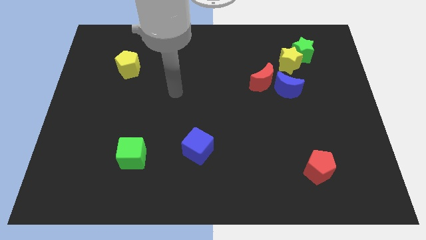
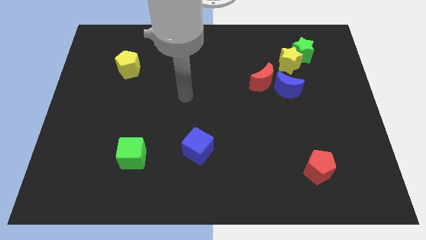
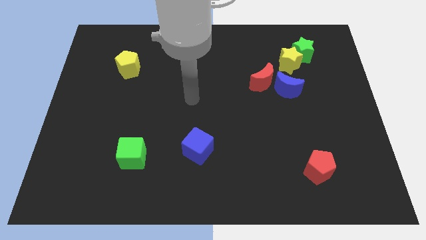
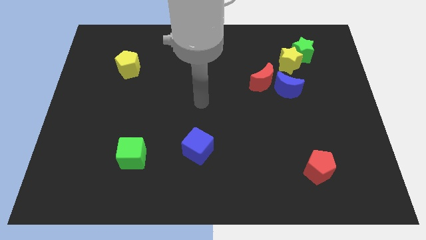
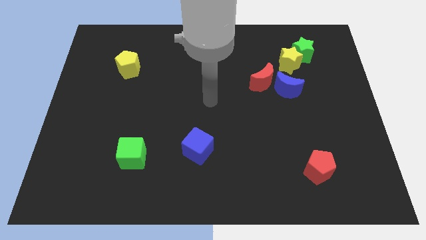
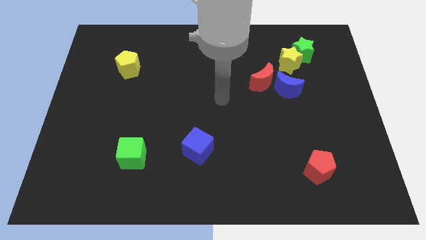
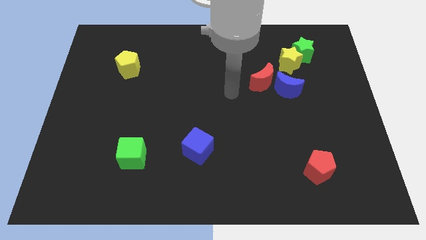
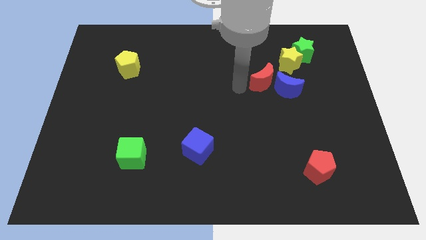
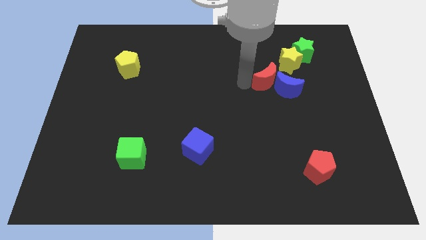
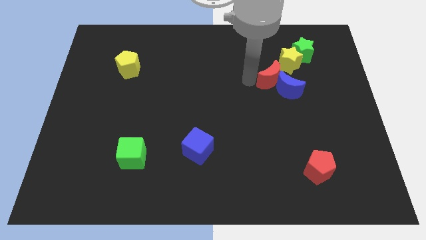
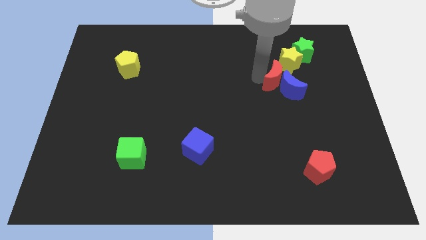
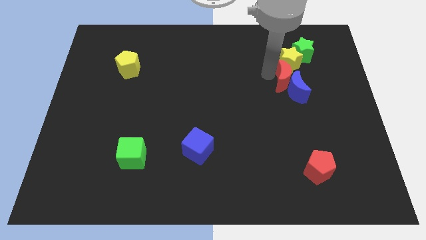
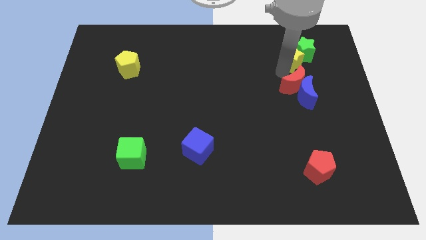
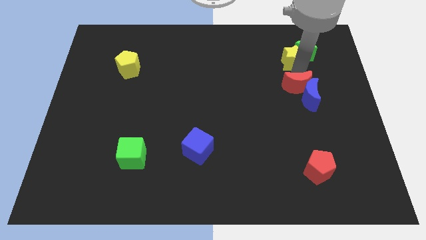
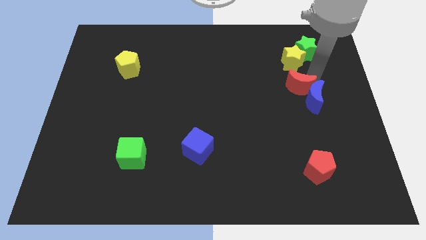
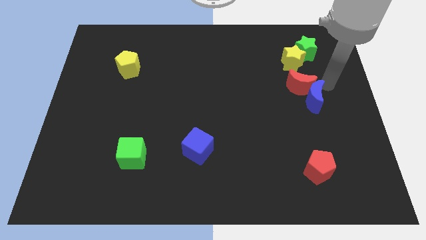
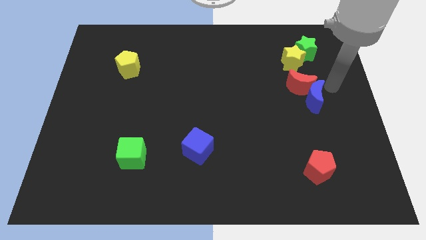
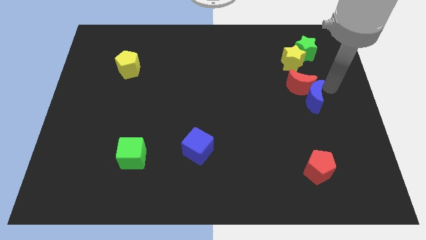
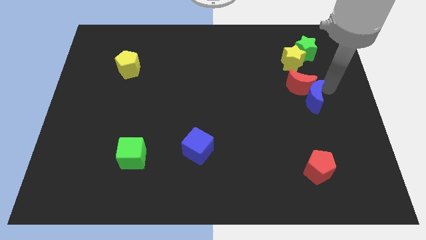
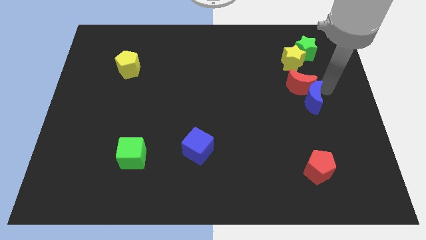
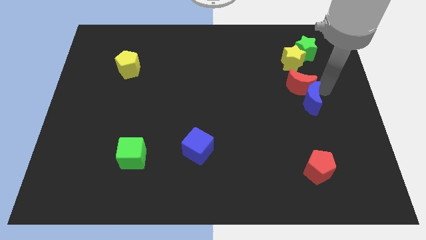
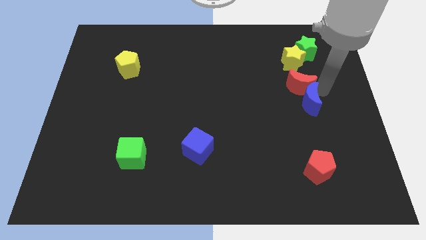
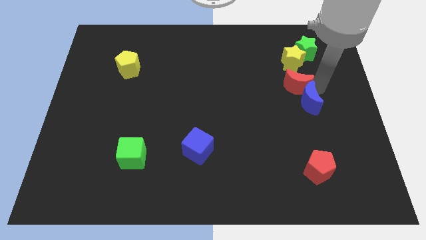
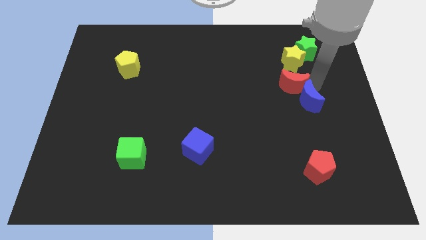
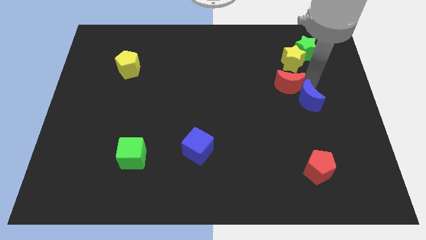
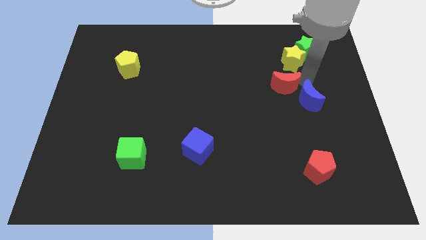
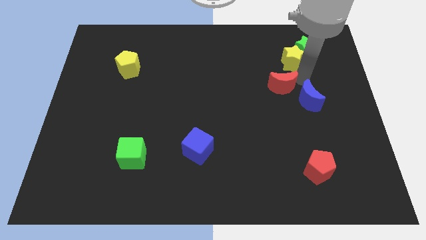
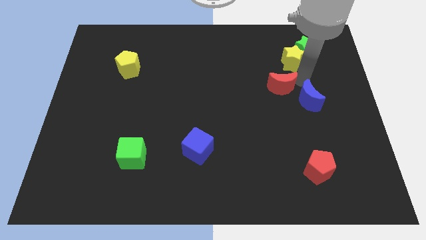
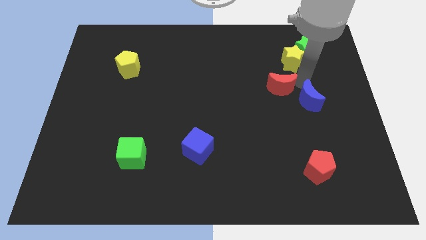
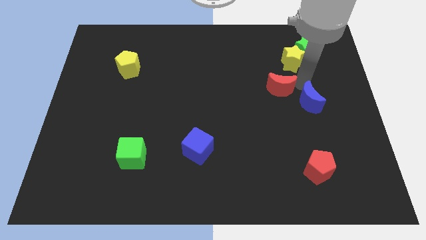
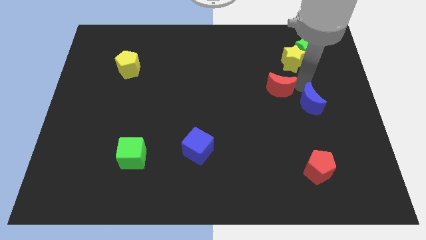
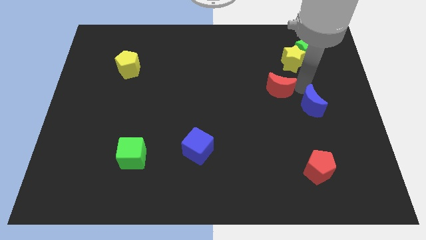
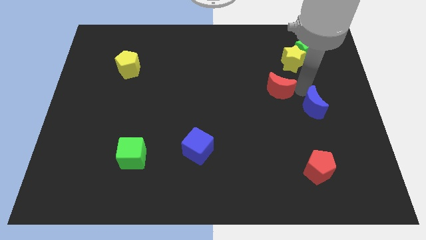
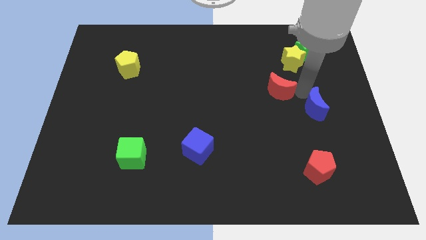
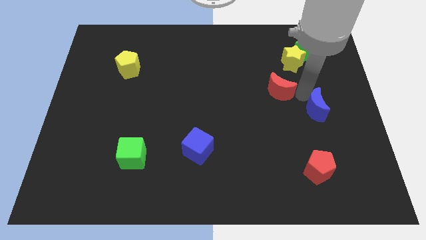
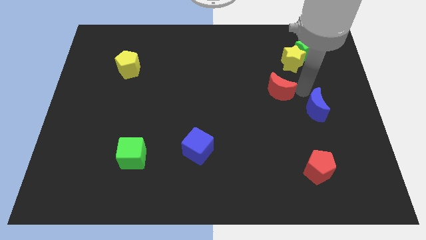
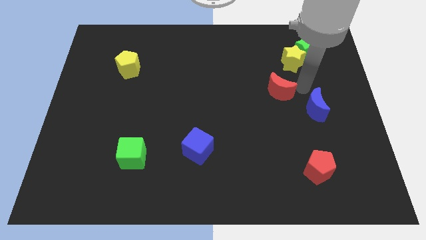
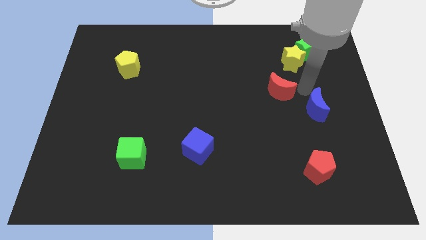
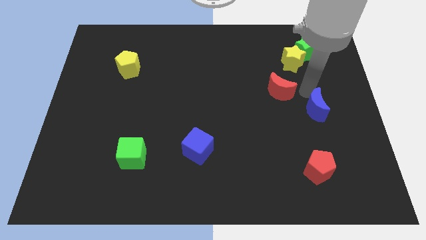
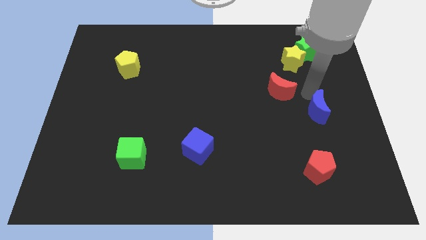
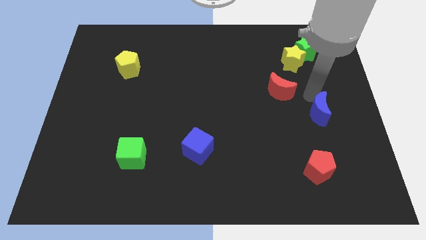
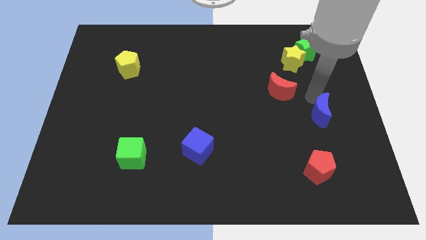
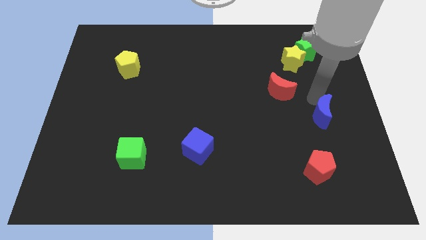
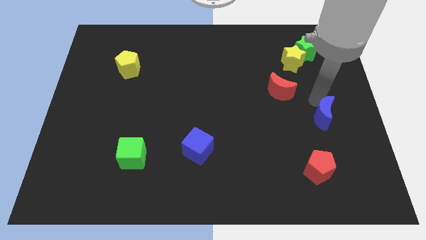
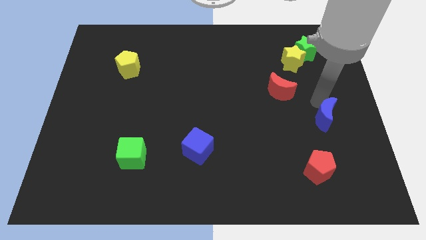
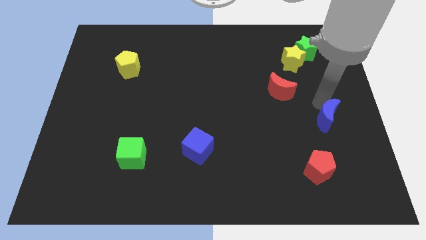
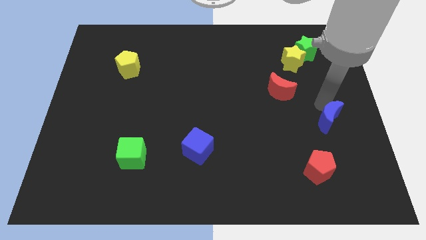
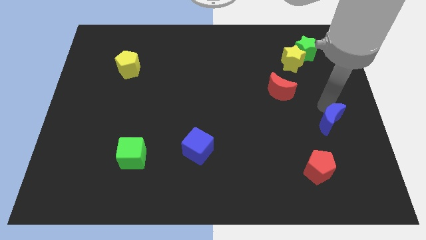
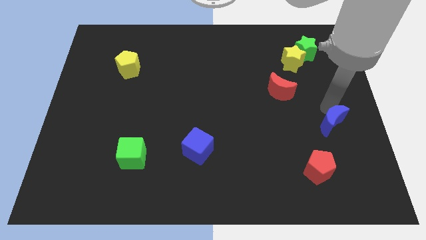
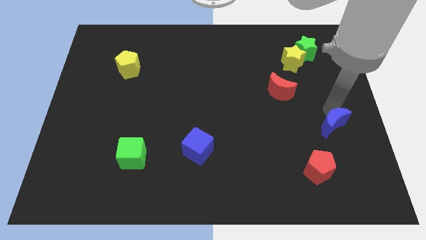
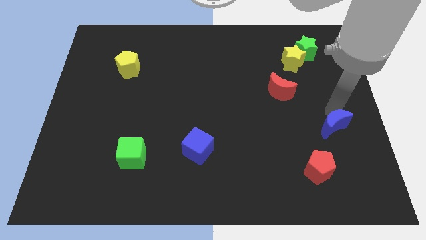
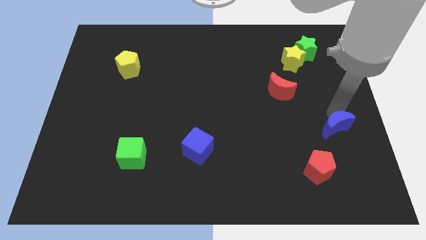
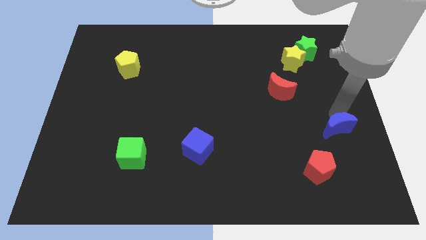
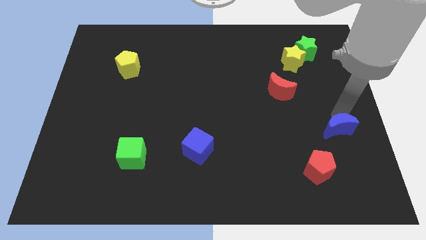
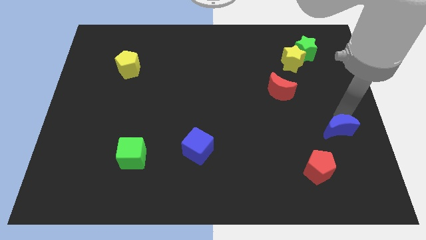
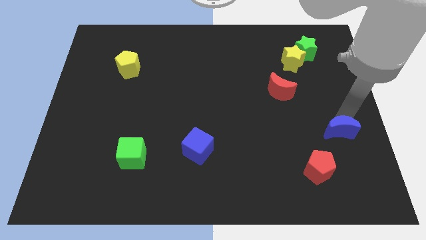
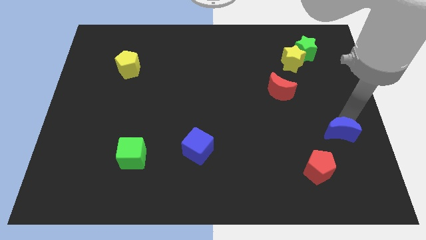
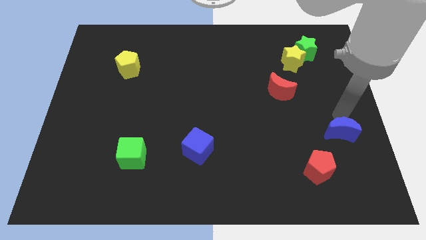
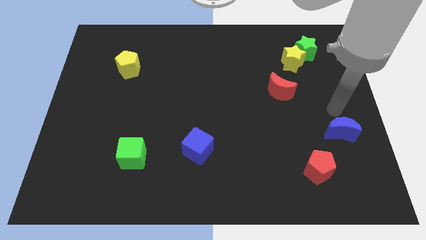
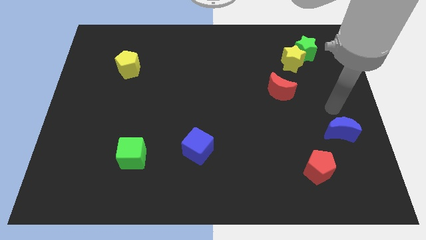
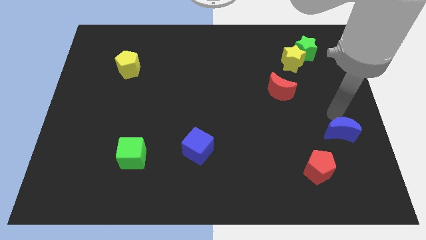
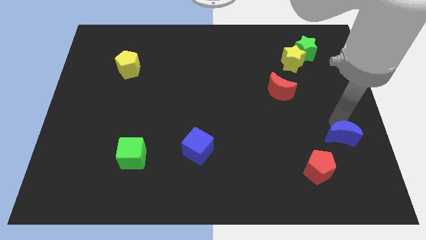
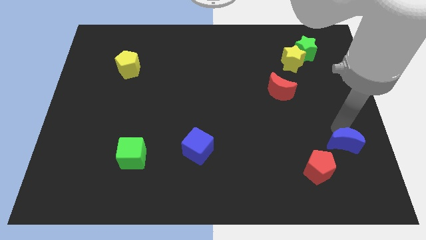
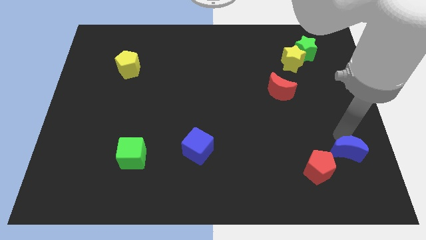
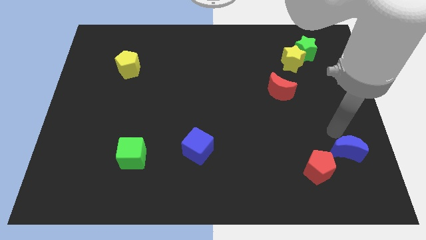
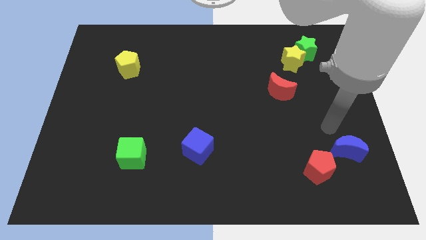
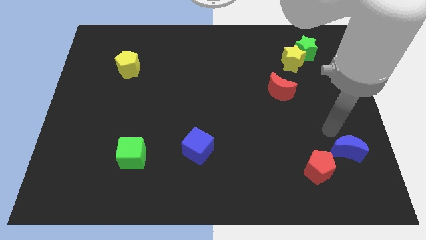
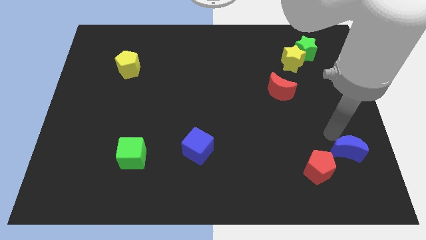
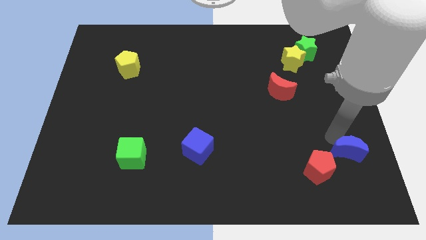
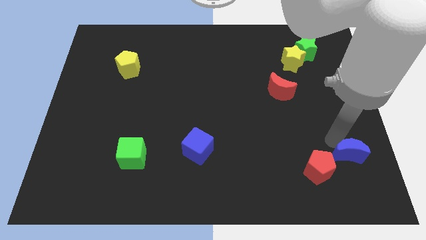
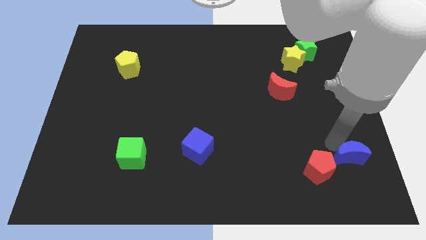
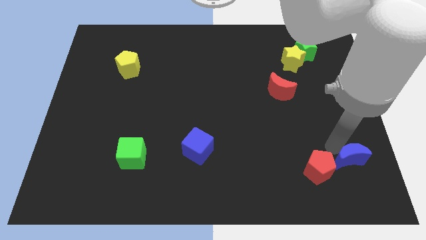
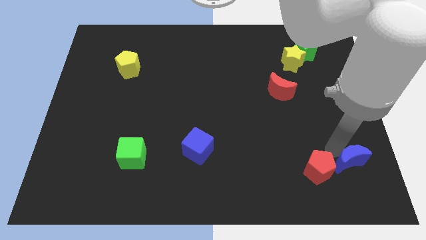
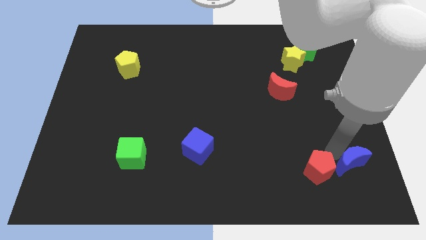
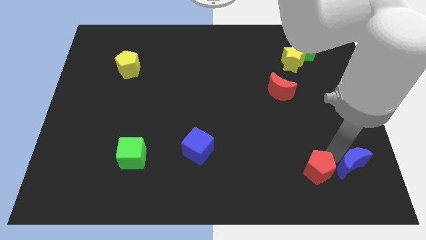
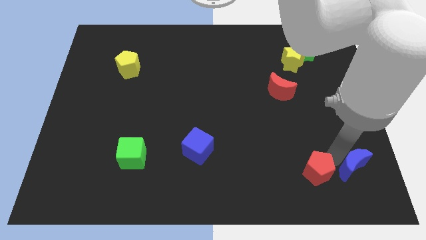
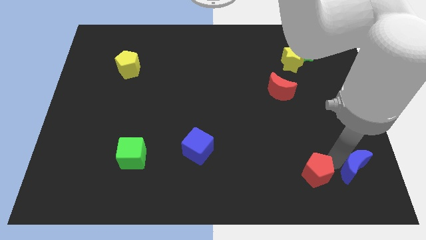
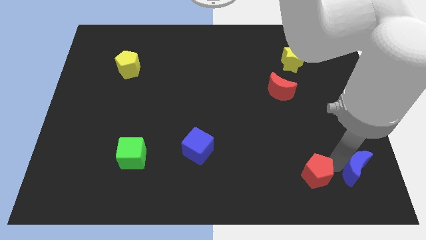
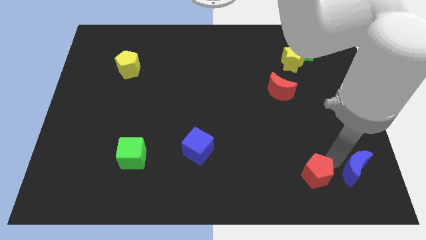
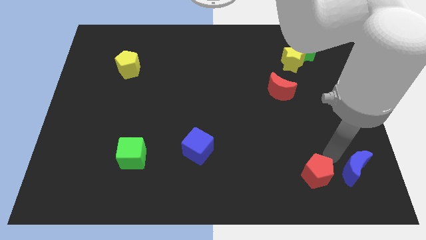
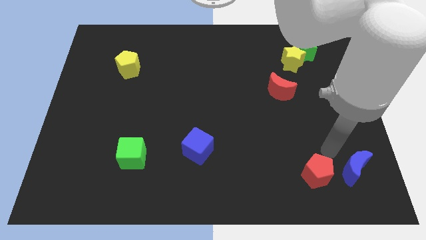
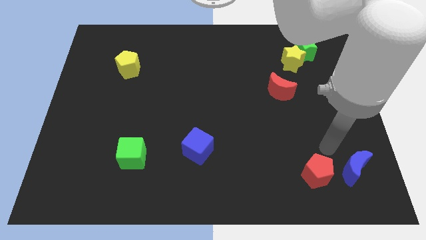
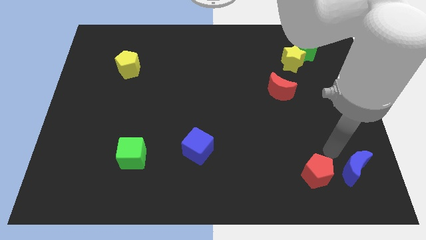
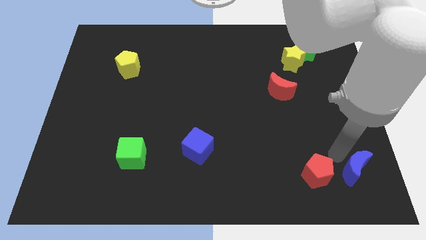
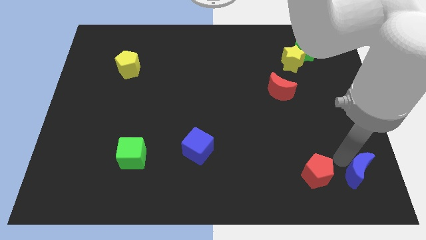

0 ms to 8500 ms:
move the blue moon to the bottom right of the board
